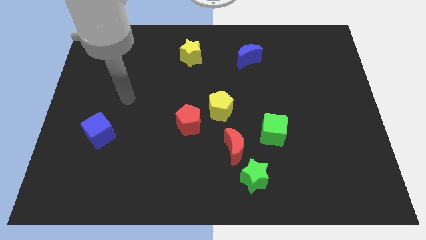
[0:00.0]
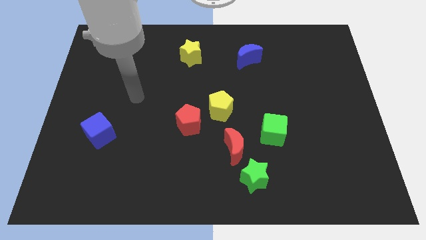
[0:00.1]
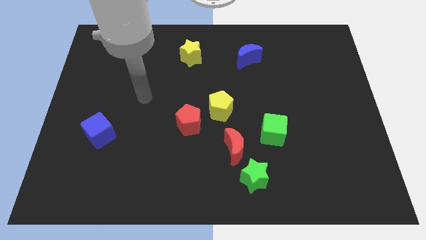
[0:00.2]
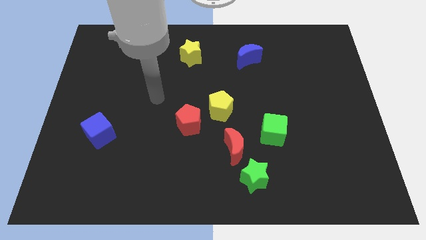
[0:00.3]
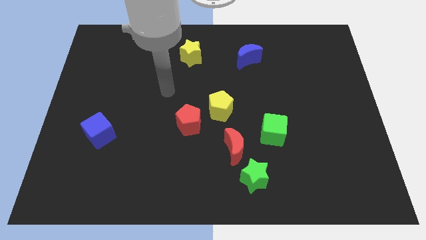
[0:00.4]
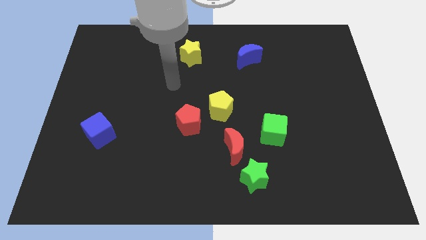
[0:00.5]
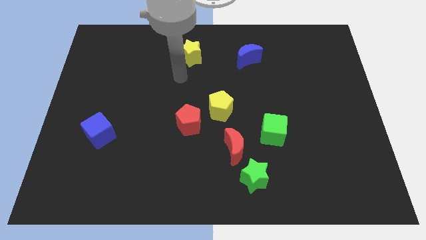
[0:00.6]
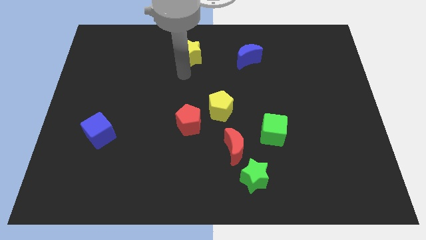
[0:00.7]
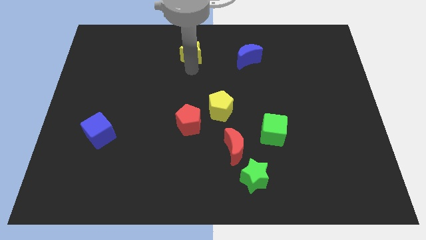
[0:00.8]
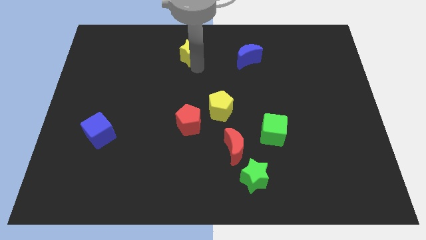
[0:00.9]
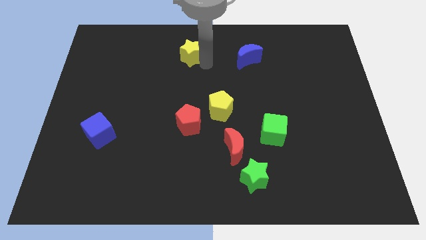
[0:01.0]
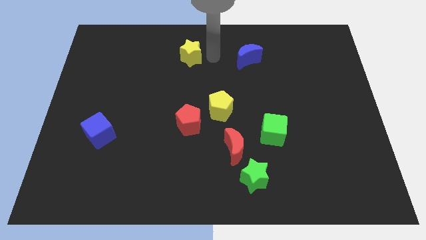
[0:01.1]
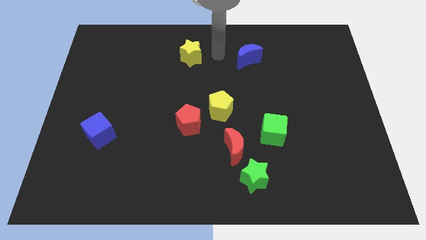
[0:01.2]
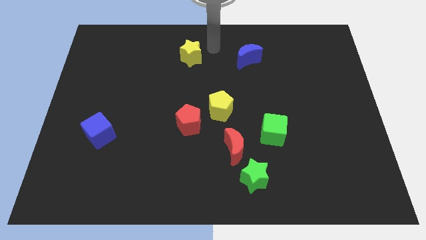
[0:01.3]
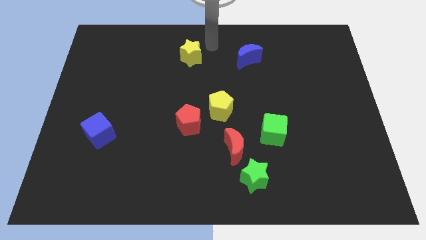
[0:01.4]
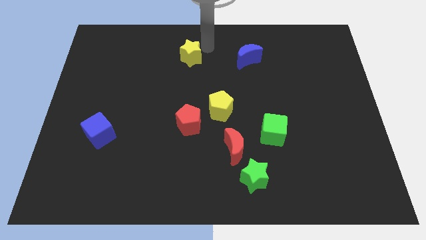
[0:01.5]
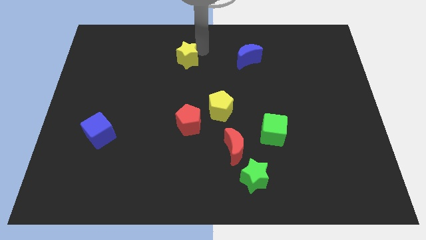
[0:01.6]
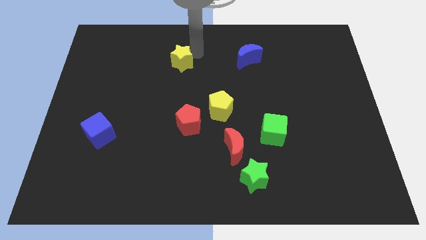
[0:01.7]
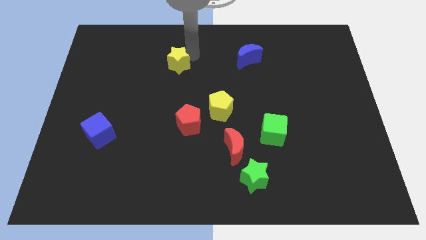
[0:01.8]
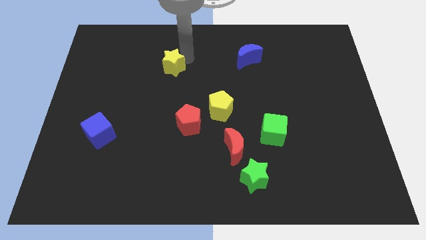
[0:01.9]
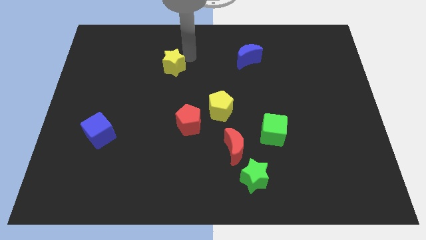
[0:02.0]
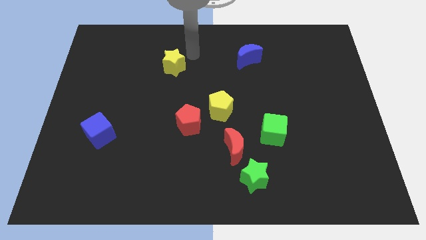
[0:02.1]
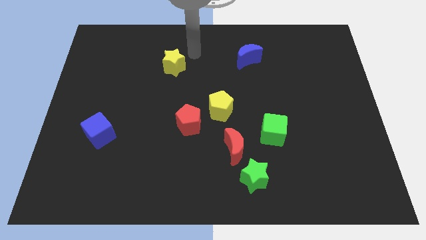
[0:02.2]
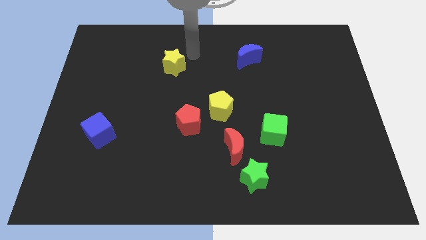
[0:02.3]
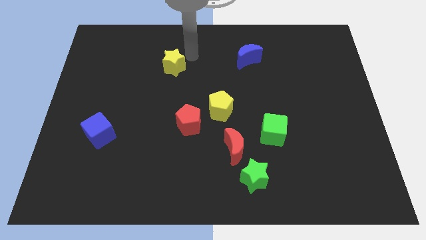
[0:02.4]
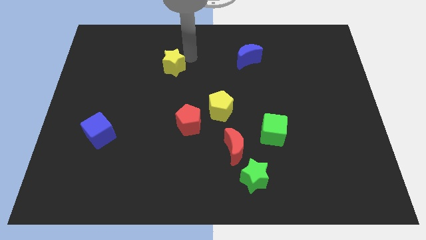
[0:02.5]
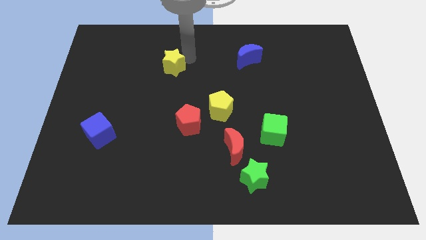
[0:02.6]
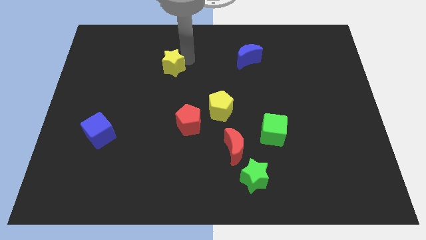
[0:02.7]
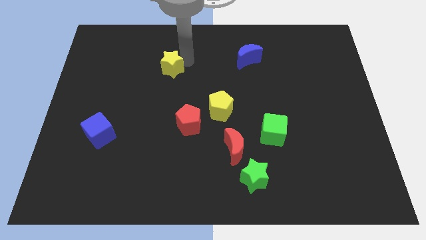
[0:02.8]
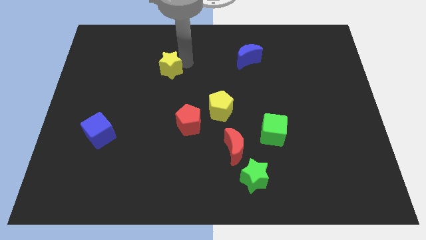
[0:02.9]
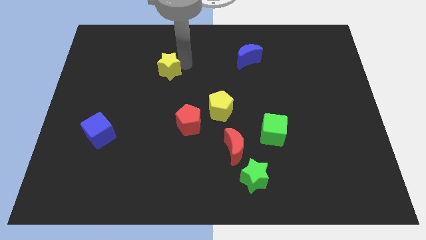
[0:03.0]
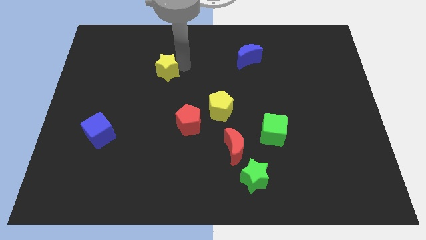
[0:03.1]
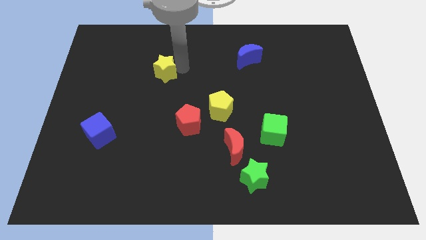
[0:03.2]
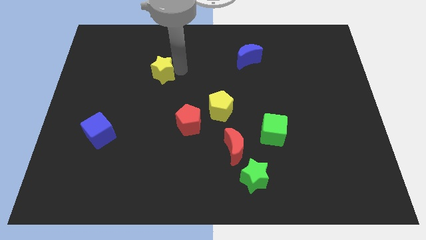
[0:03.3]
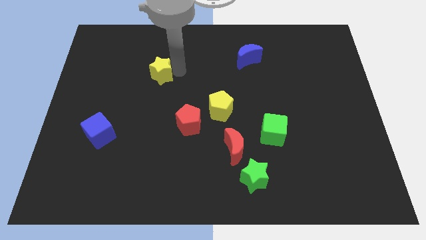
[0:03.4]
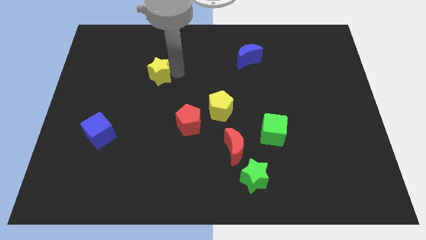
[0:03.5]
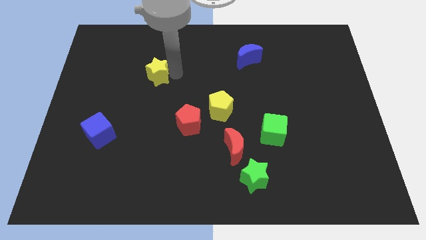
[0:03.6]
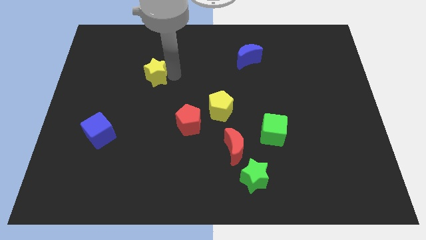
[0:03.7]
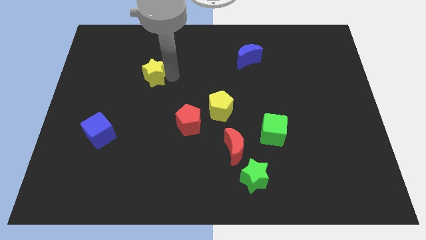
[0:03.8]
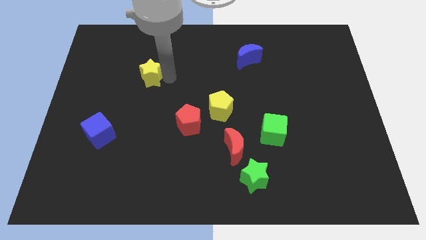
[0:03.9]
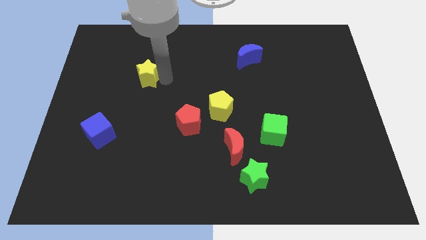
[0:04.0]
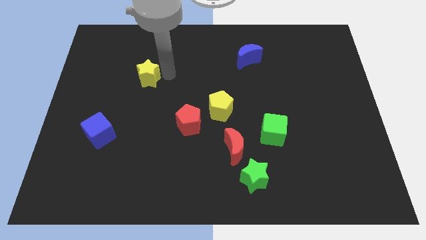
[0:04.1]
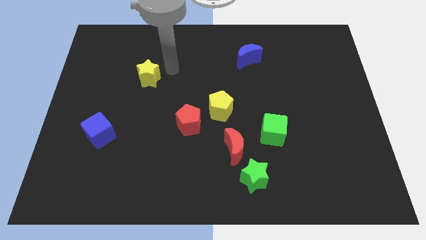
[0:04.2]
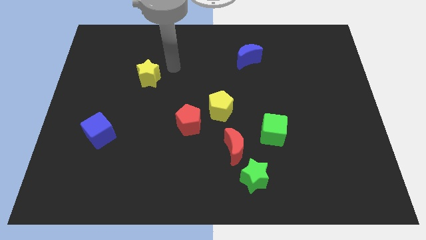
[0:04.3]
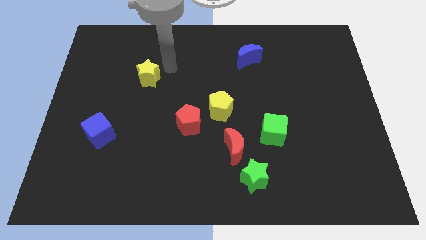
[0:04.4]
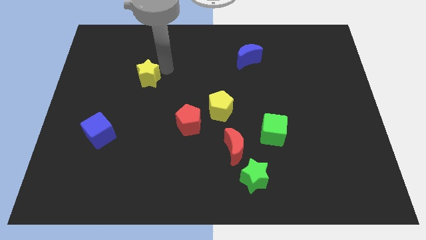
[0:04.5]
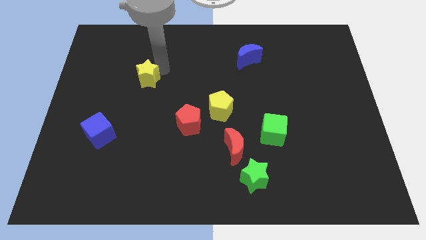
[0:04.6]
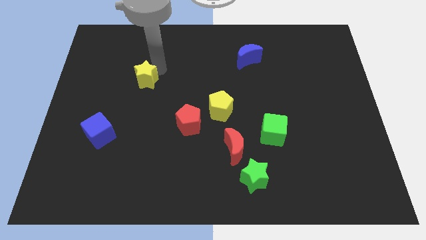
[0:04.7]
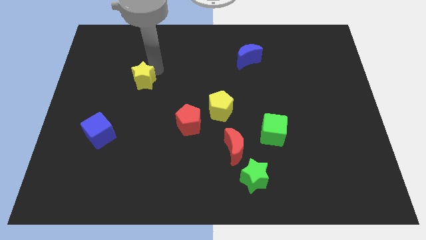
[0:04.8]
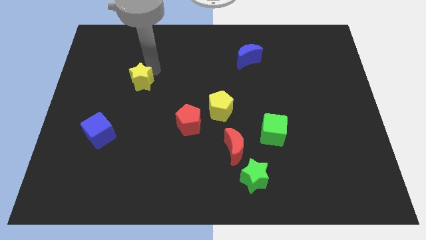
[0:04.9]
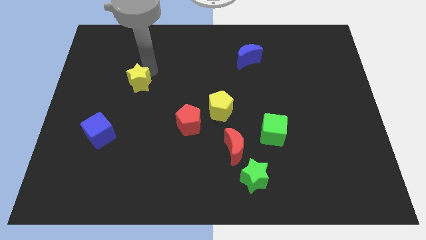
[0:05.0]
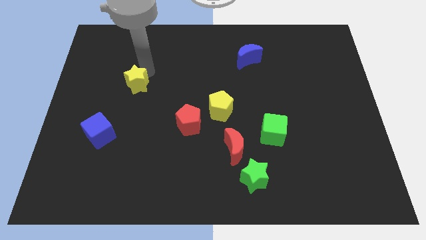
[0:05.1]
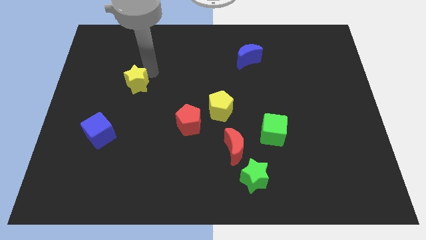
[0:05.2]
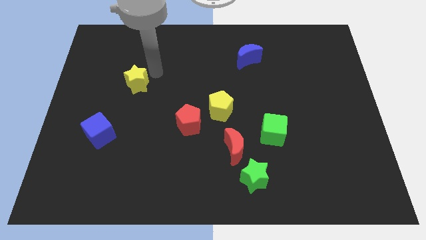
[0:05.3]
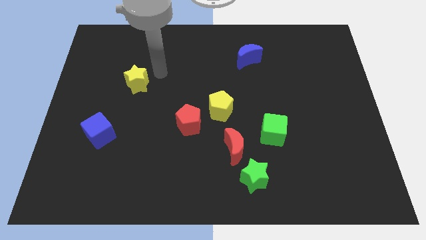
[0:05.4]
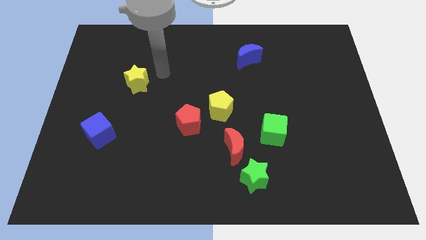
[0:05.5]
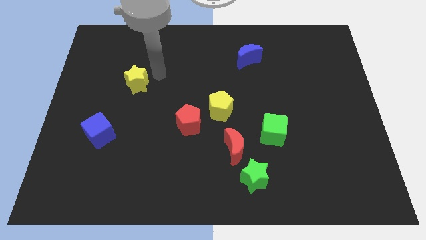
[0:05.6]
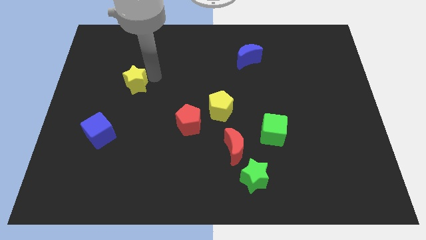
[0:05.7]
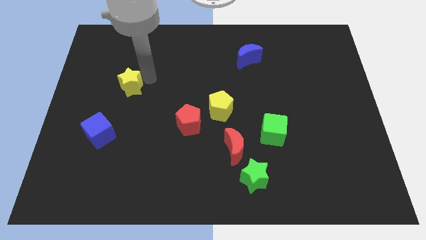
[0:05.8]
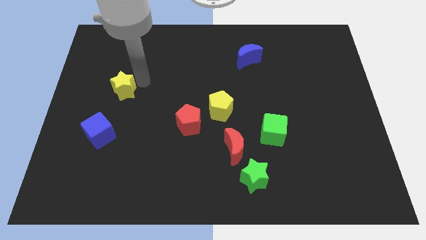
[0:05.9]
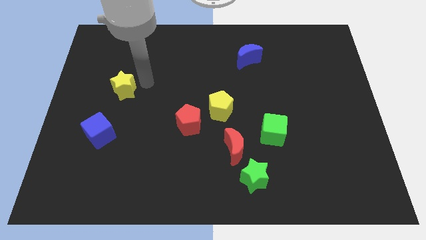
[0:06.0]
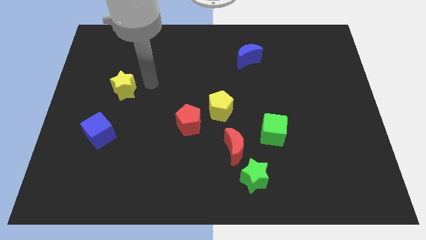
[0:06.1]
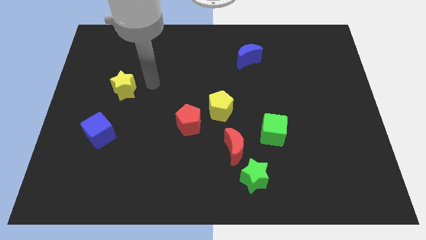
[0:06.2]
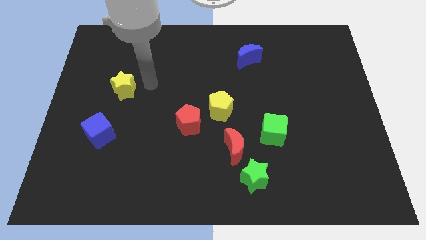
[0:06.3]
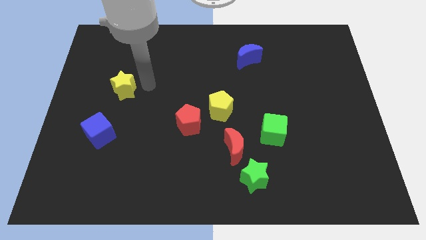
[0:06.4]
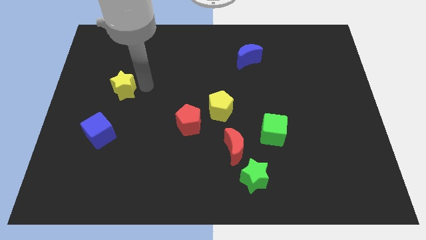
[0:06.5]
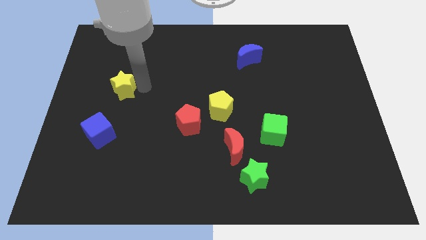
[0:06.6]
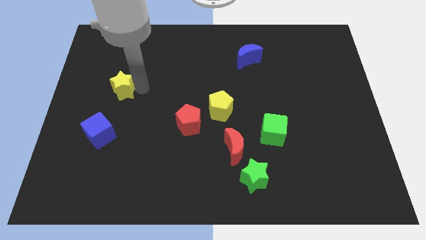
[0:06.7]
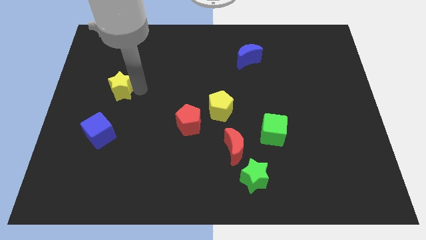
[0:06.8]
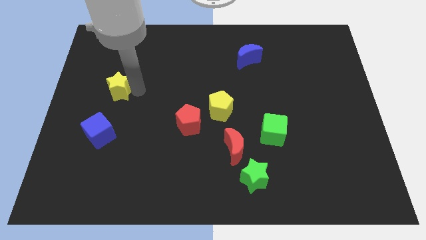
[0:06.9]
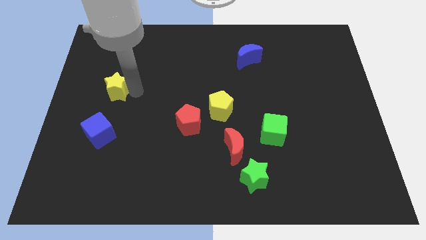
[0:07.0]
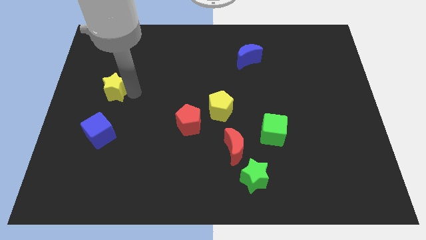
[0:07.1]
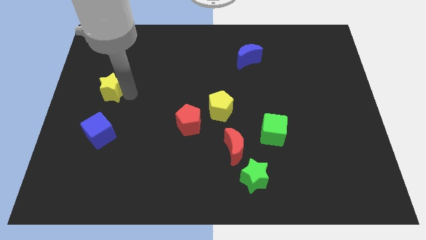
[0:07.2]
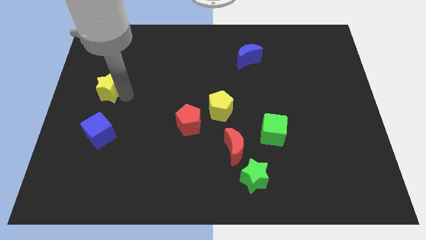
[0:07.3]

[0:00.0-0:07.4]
push the yellow star to the left side of the board

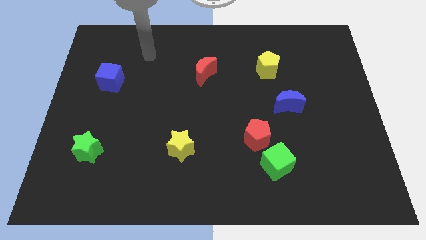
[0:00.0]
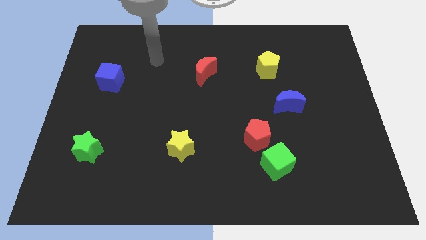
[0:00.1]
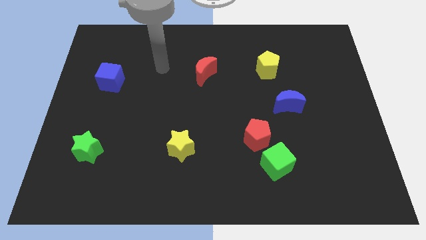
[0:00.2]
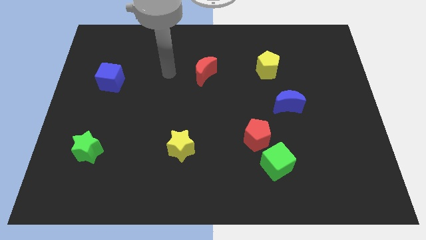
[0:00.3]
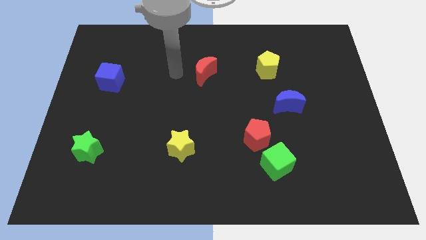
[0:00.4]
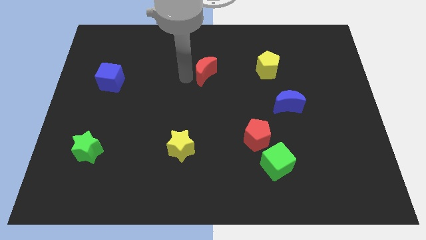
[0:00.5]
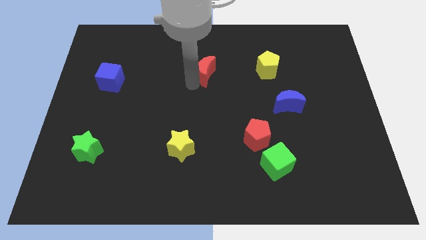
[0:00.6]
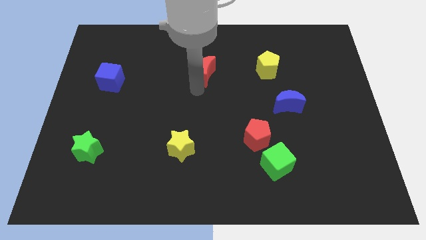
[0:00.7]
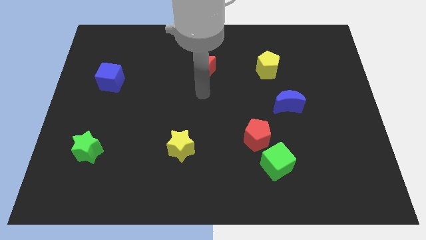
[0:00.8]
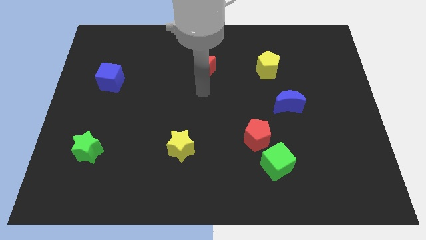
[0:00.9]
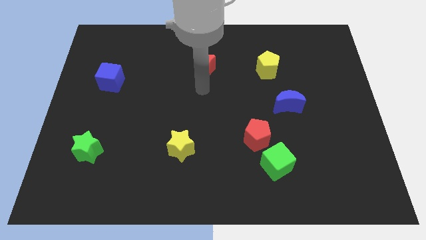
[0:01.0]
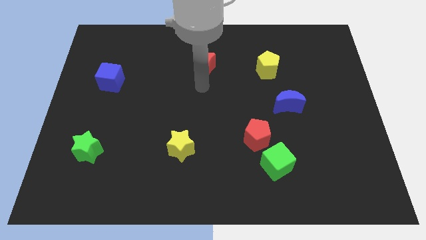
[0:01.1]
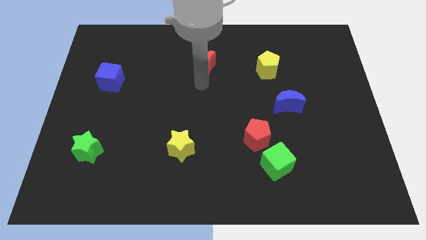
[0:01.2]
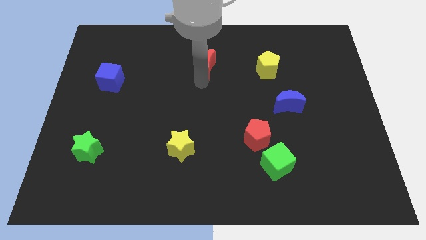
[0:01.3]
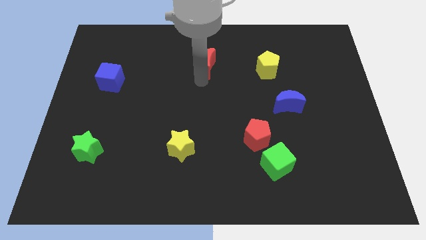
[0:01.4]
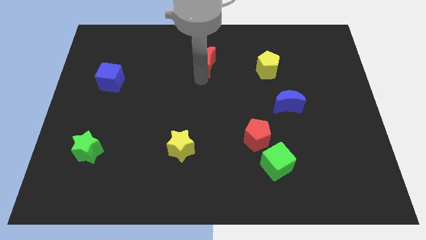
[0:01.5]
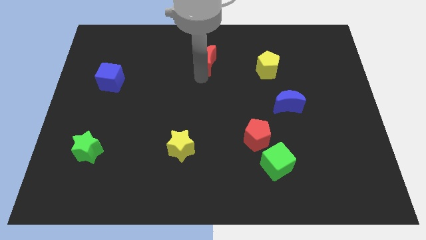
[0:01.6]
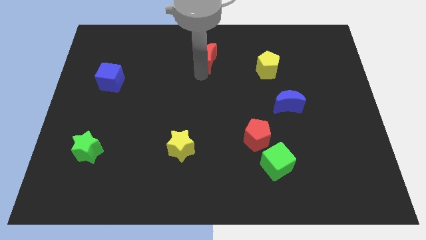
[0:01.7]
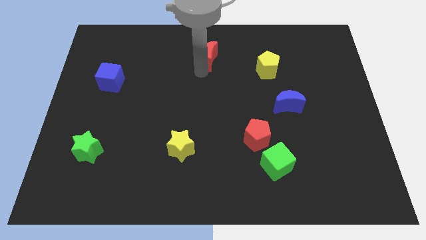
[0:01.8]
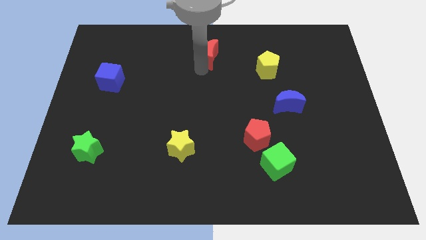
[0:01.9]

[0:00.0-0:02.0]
push the red moon to the top
